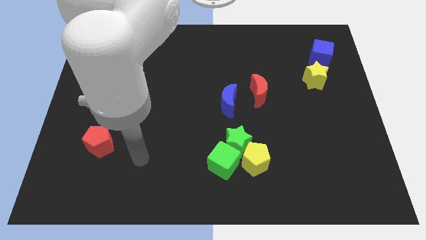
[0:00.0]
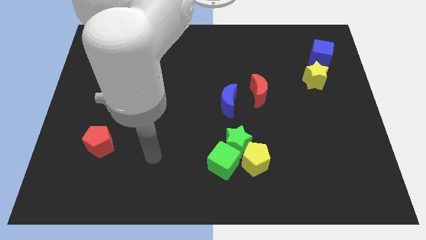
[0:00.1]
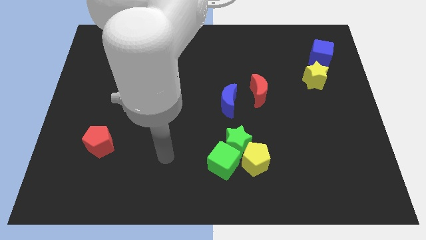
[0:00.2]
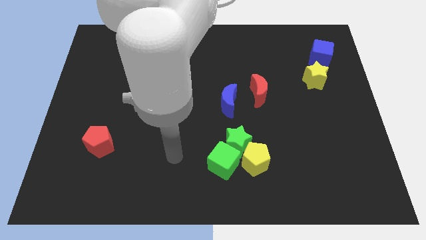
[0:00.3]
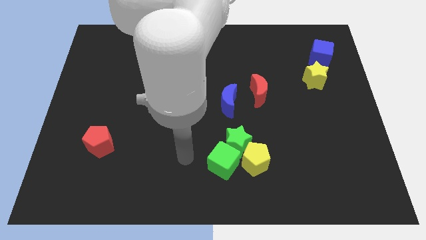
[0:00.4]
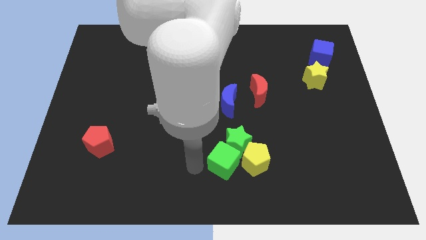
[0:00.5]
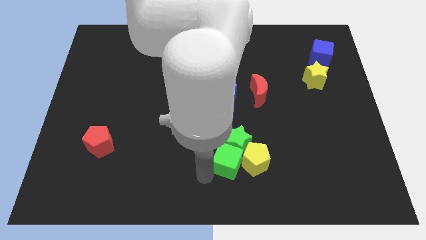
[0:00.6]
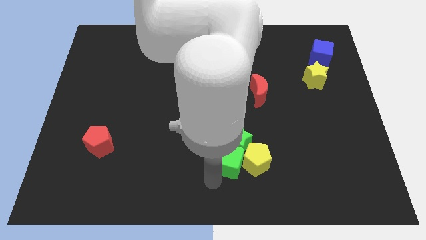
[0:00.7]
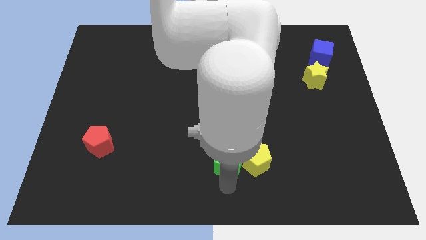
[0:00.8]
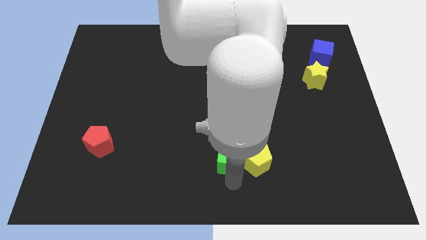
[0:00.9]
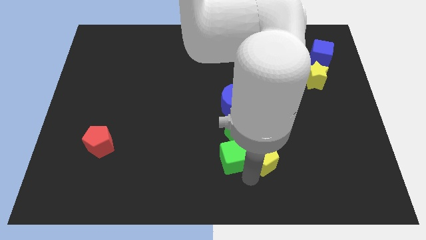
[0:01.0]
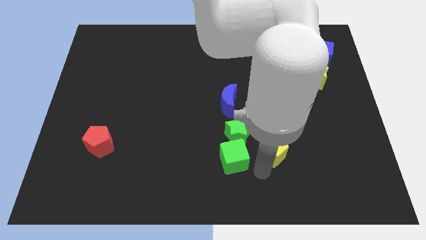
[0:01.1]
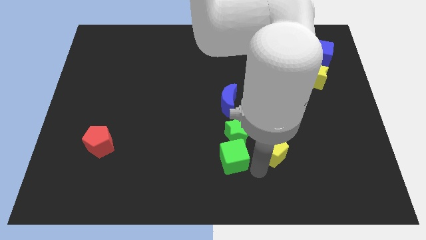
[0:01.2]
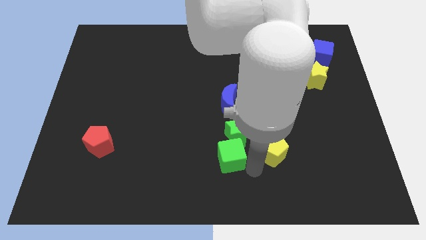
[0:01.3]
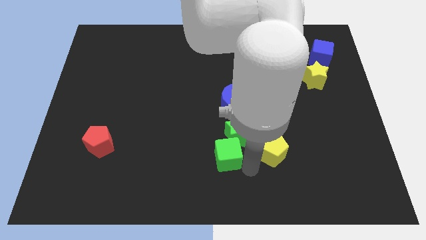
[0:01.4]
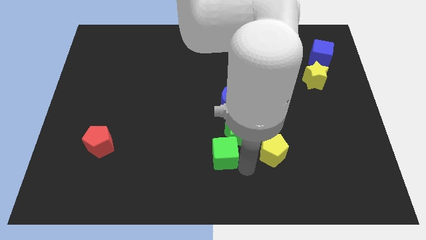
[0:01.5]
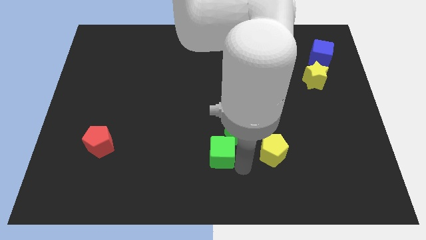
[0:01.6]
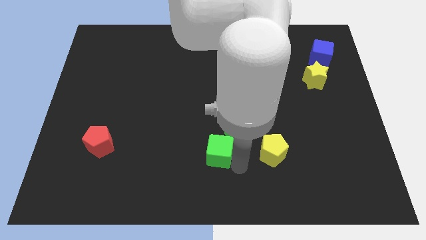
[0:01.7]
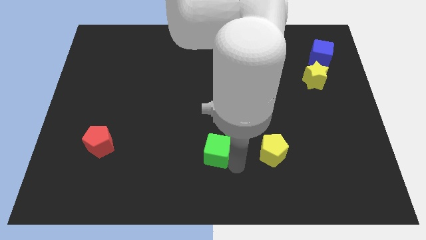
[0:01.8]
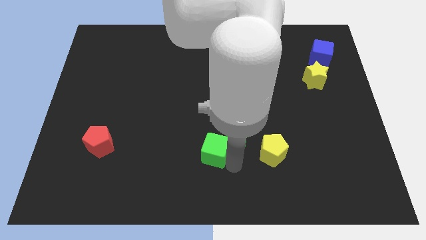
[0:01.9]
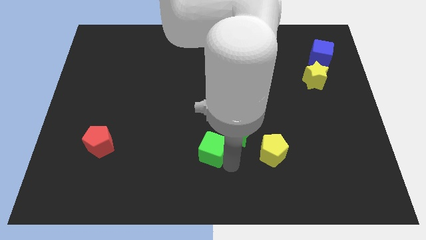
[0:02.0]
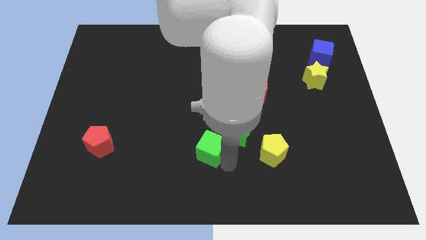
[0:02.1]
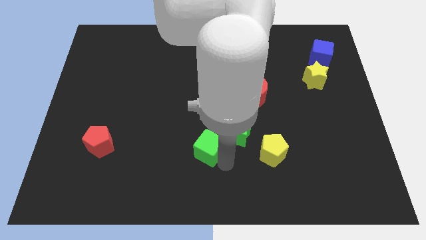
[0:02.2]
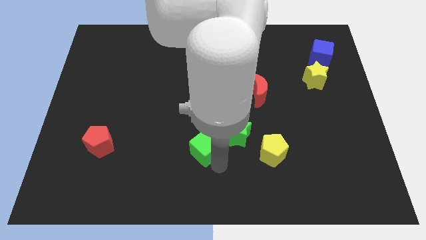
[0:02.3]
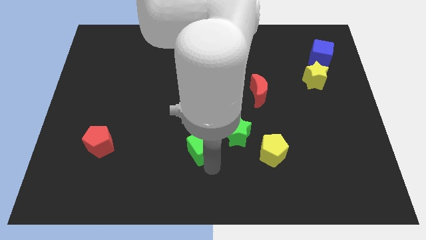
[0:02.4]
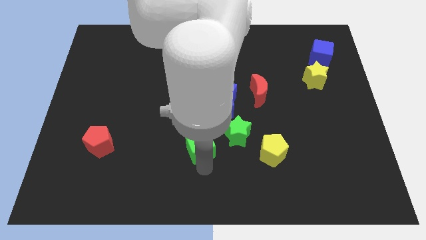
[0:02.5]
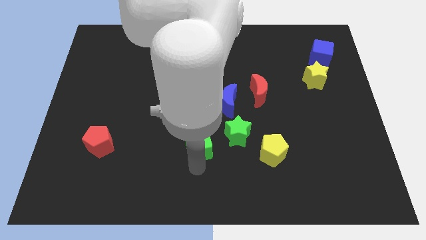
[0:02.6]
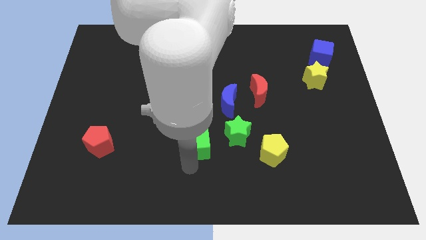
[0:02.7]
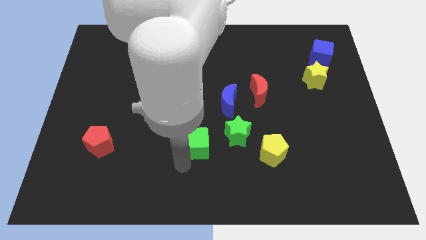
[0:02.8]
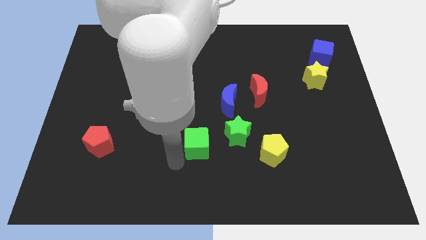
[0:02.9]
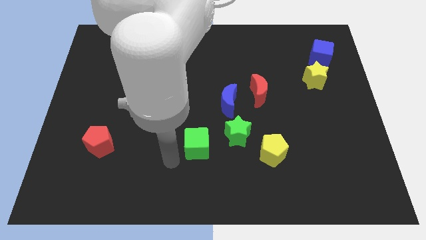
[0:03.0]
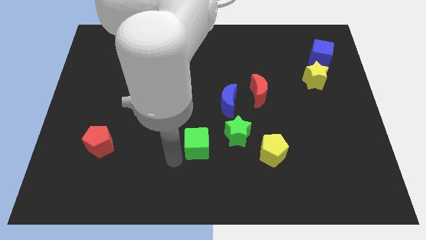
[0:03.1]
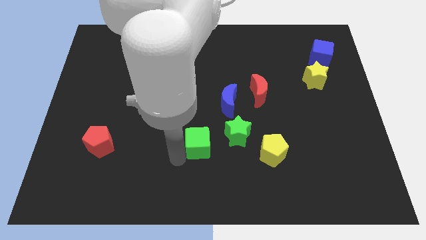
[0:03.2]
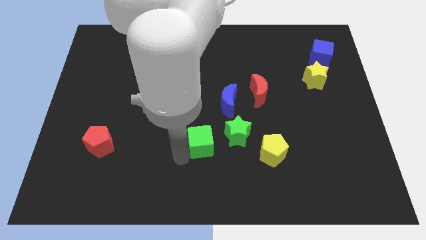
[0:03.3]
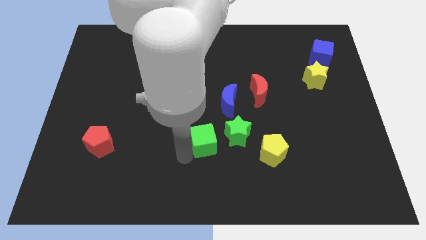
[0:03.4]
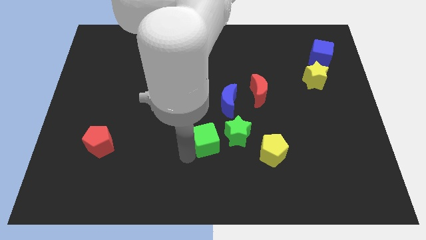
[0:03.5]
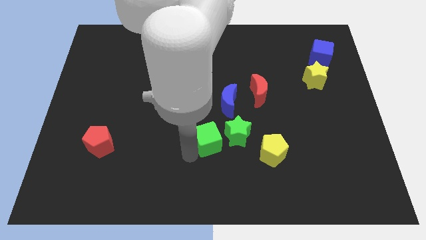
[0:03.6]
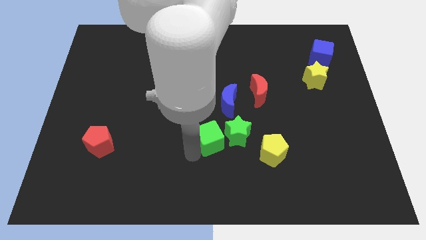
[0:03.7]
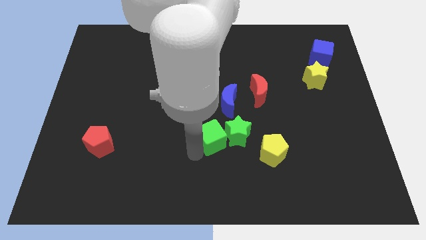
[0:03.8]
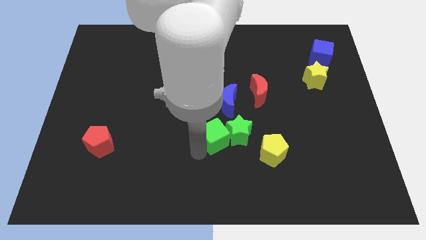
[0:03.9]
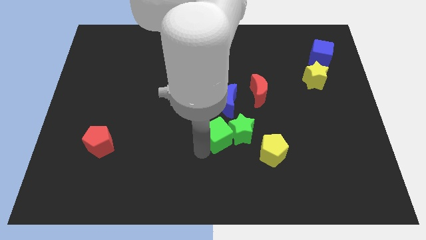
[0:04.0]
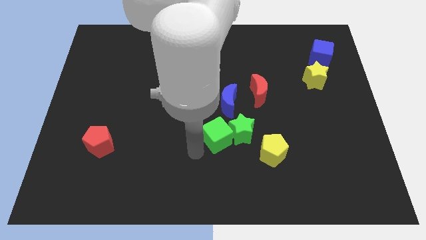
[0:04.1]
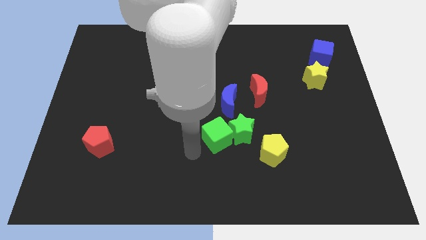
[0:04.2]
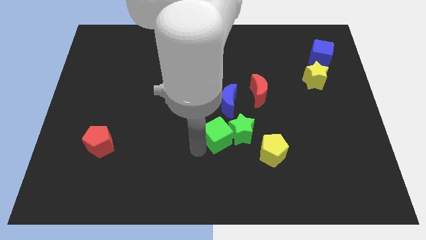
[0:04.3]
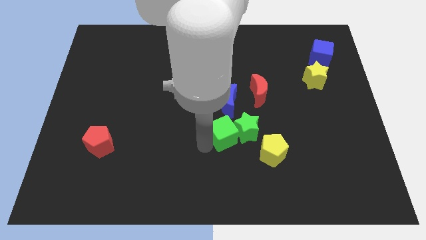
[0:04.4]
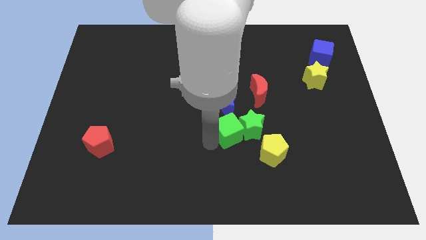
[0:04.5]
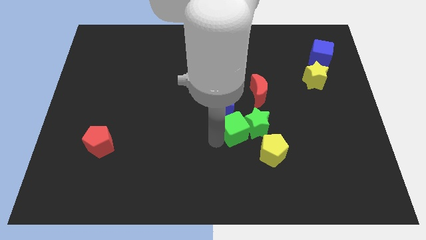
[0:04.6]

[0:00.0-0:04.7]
slightly push the green cube upwards and to the right diagonally

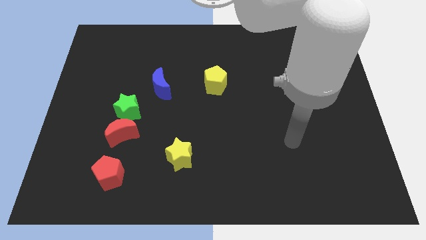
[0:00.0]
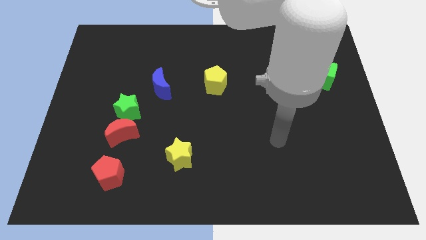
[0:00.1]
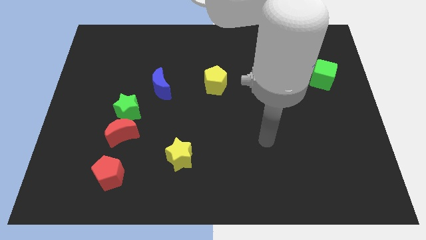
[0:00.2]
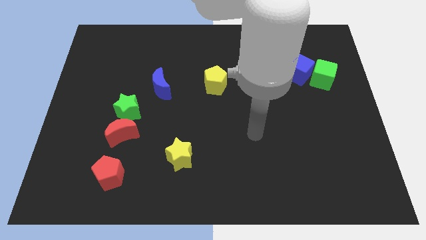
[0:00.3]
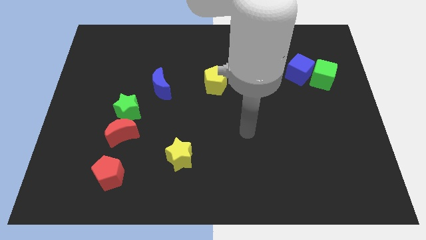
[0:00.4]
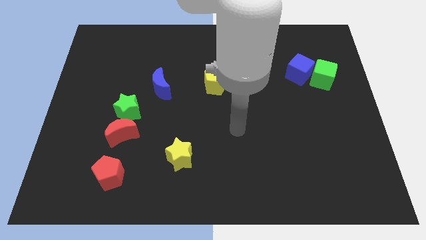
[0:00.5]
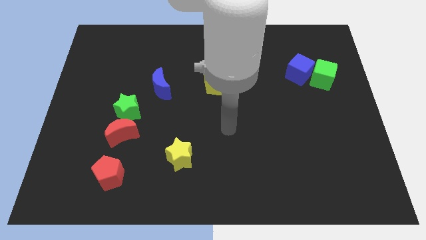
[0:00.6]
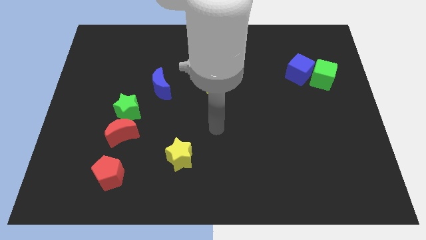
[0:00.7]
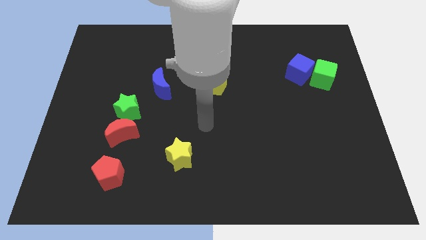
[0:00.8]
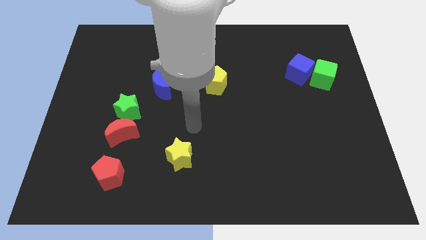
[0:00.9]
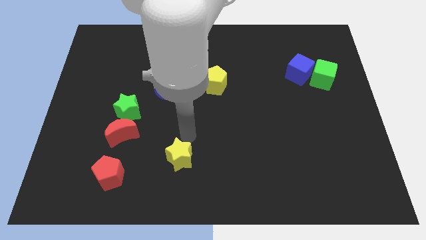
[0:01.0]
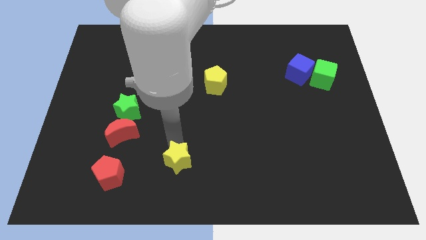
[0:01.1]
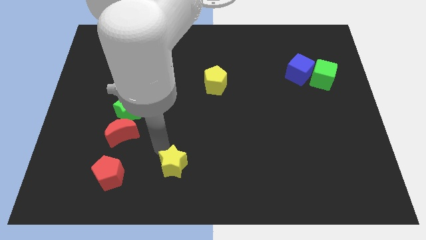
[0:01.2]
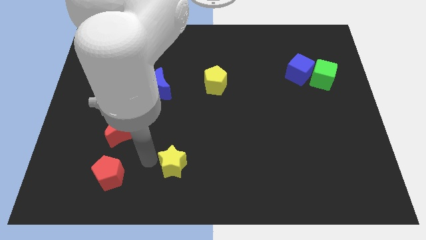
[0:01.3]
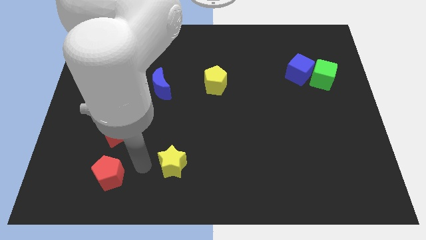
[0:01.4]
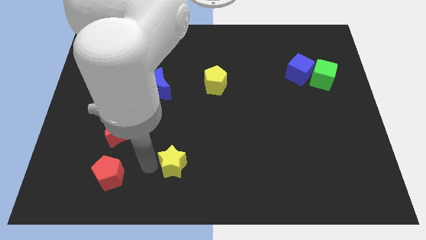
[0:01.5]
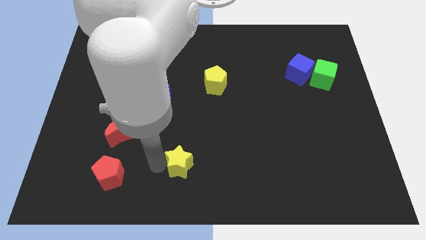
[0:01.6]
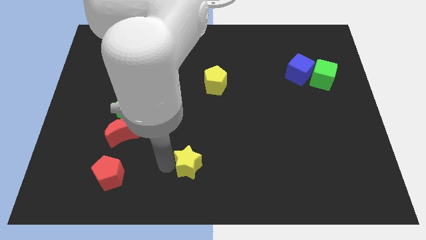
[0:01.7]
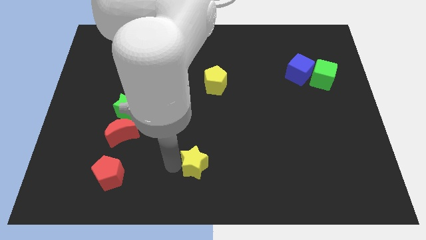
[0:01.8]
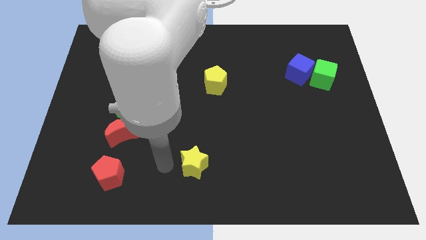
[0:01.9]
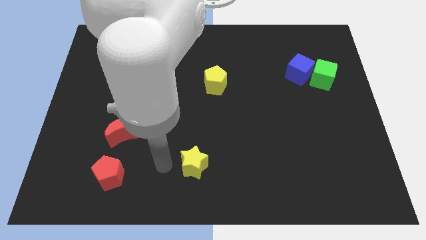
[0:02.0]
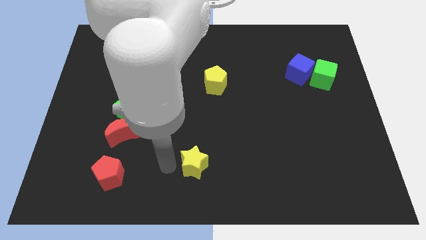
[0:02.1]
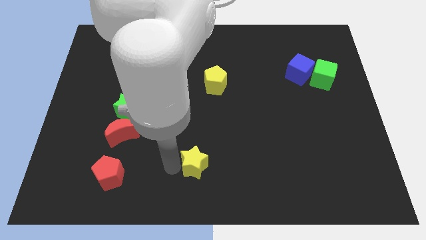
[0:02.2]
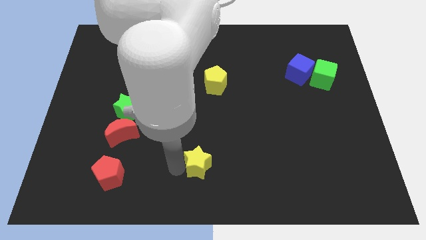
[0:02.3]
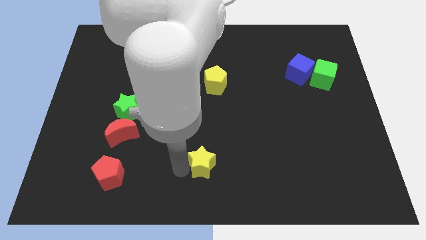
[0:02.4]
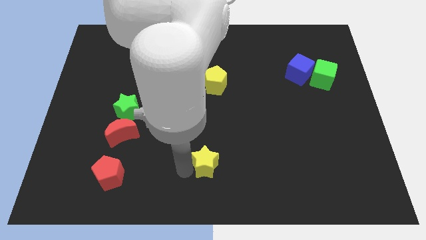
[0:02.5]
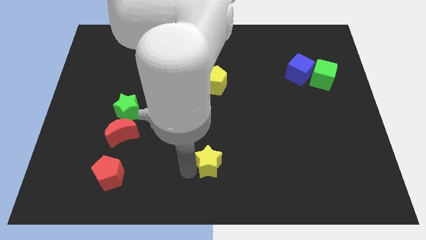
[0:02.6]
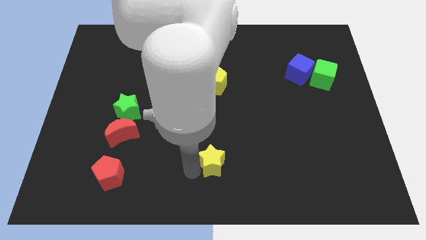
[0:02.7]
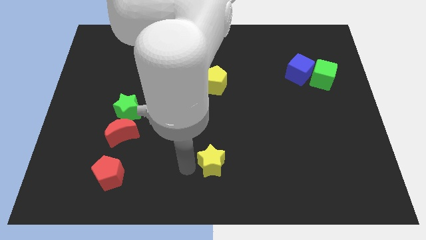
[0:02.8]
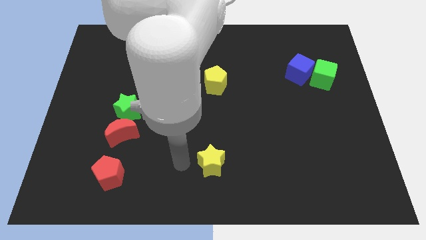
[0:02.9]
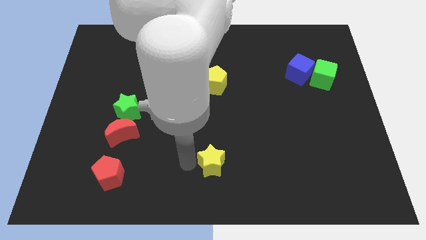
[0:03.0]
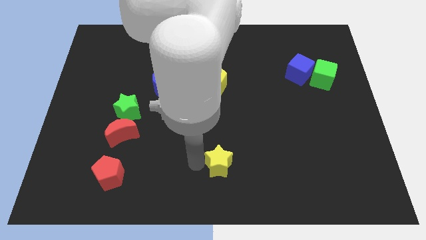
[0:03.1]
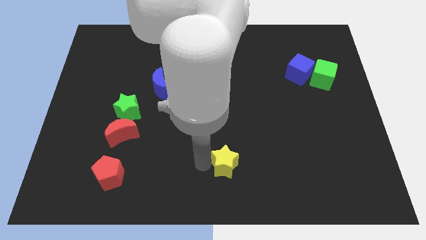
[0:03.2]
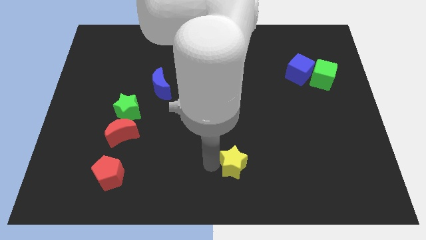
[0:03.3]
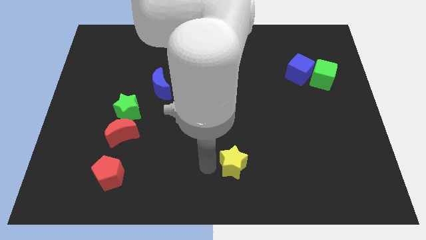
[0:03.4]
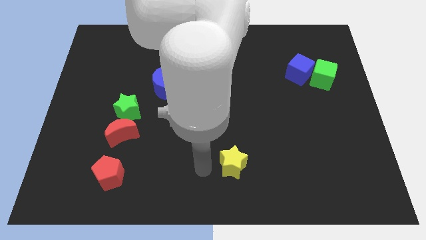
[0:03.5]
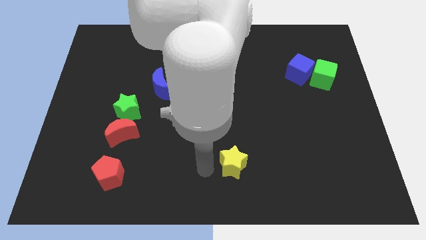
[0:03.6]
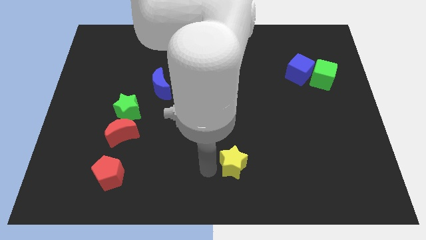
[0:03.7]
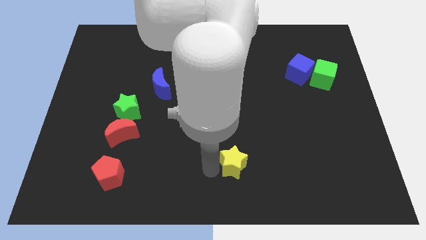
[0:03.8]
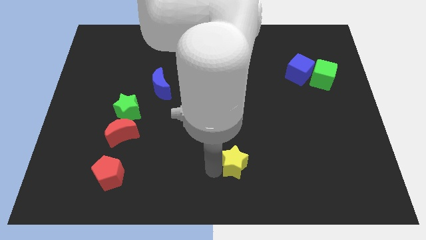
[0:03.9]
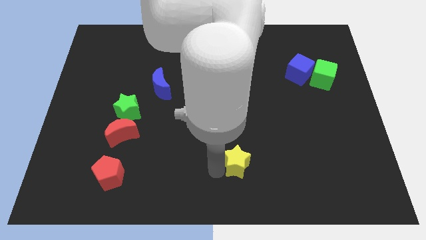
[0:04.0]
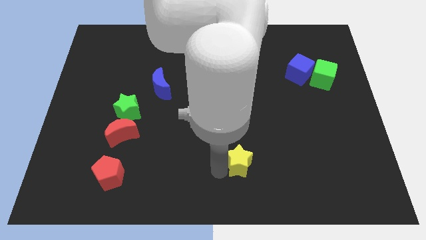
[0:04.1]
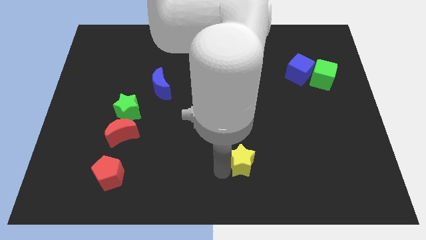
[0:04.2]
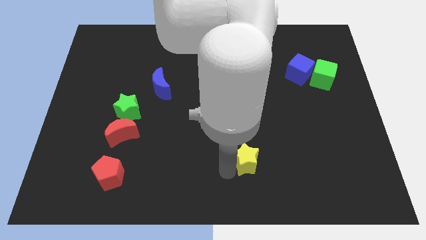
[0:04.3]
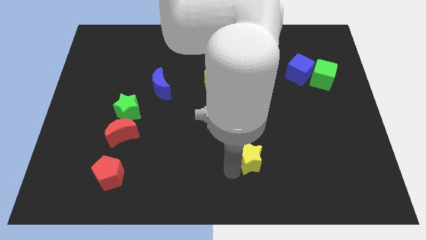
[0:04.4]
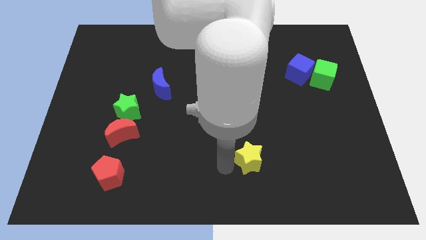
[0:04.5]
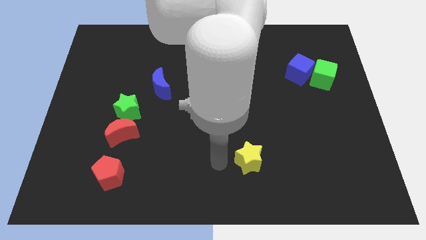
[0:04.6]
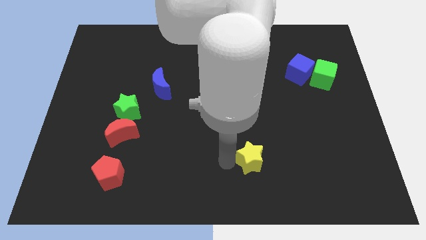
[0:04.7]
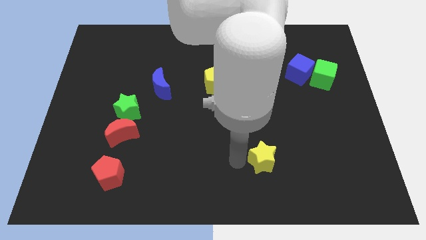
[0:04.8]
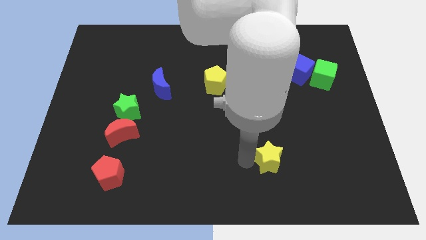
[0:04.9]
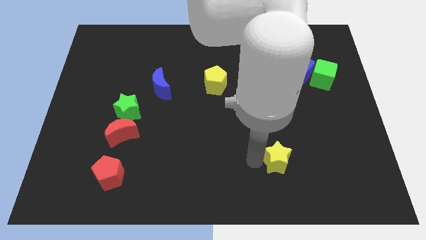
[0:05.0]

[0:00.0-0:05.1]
slide the yellow star right
